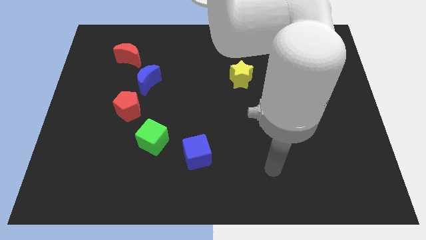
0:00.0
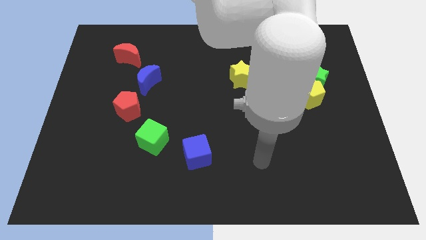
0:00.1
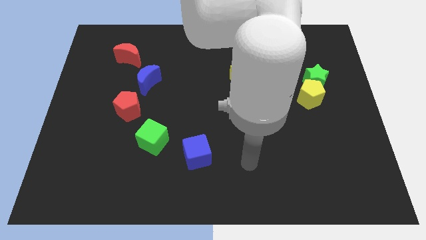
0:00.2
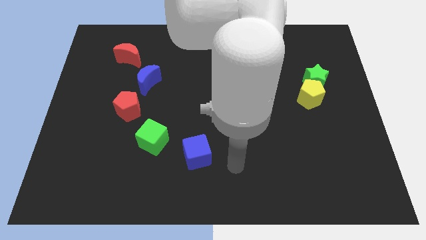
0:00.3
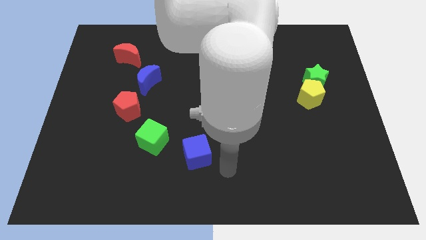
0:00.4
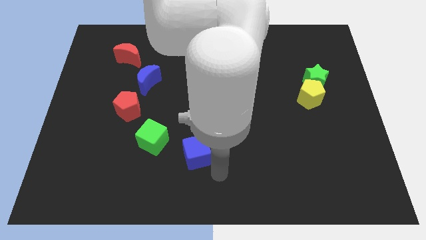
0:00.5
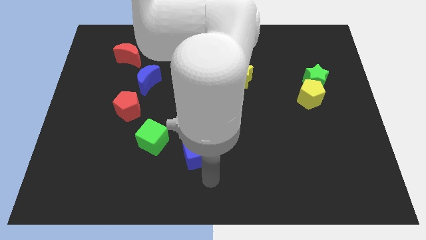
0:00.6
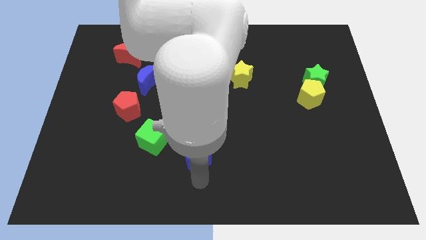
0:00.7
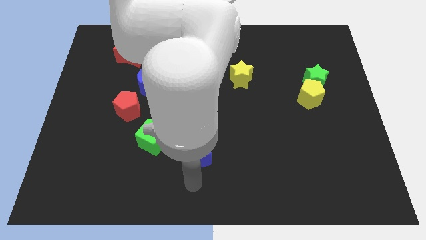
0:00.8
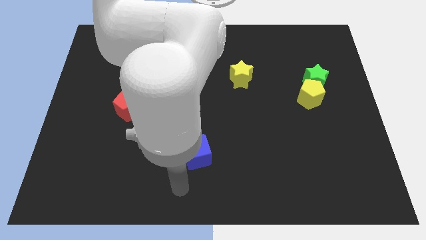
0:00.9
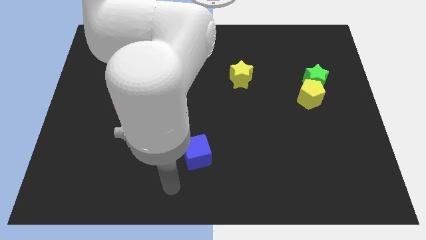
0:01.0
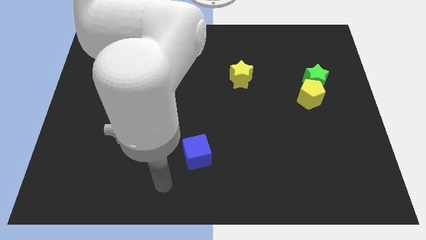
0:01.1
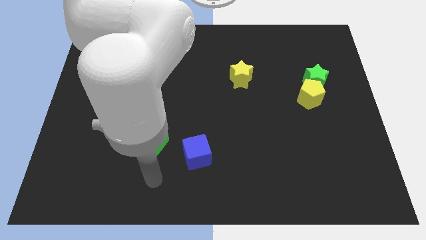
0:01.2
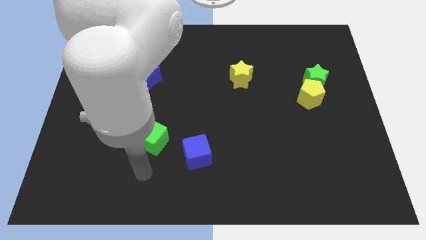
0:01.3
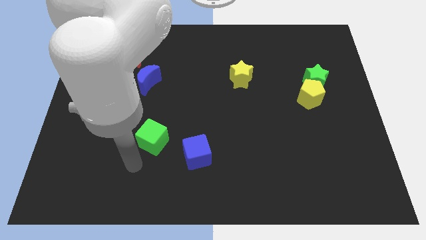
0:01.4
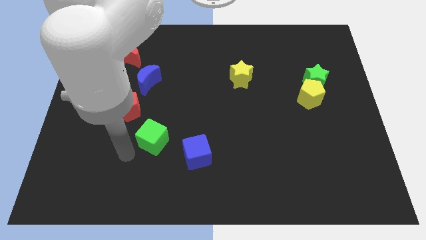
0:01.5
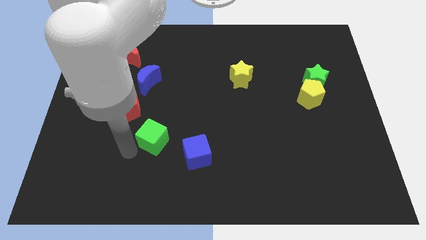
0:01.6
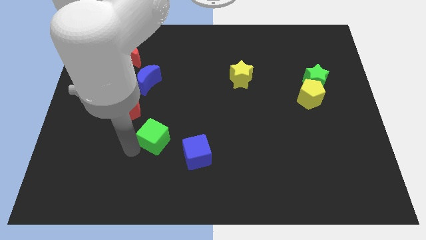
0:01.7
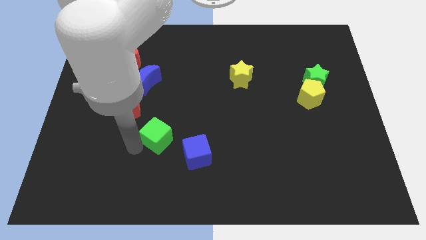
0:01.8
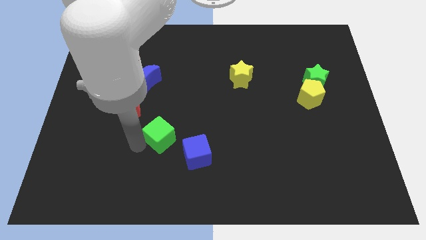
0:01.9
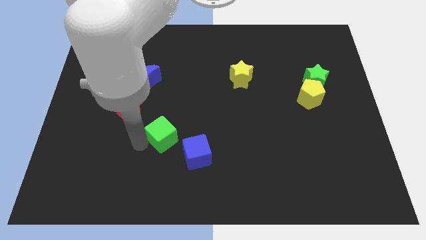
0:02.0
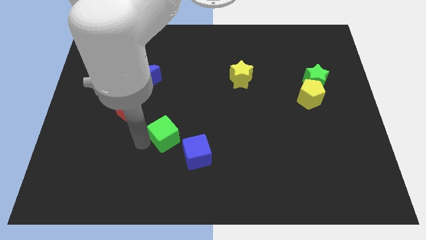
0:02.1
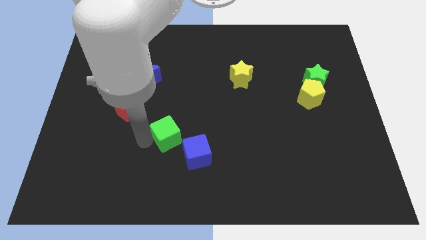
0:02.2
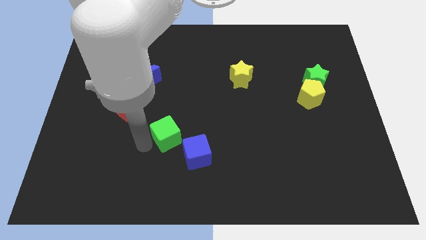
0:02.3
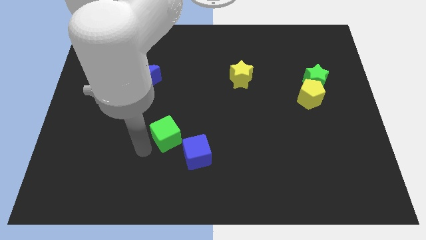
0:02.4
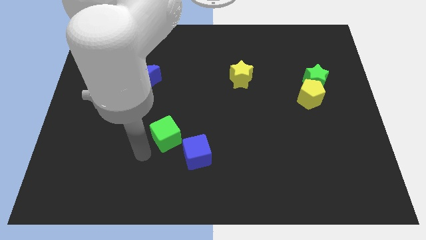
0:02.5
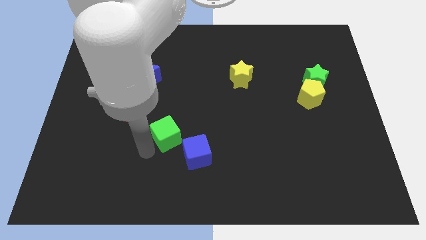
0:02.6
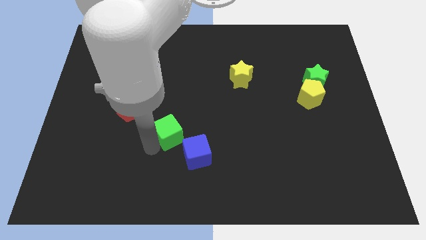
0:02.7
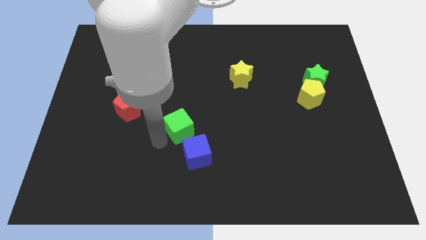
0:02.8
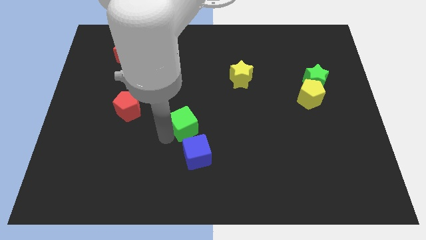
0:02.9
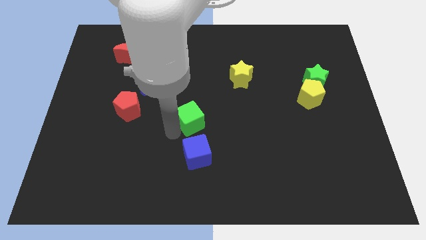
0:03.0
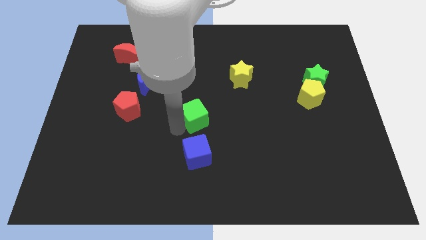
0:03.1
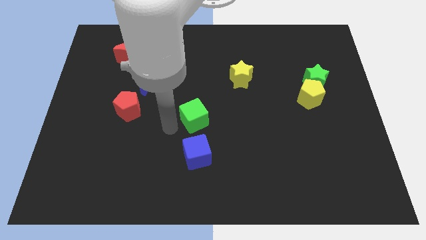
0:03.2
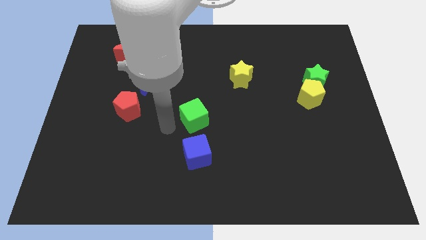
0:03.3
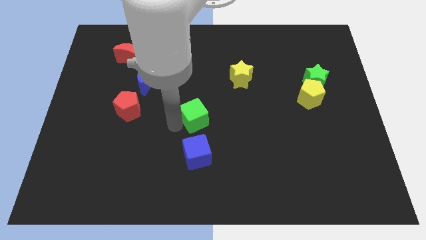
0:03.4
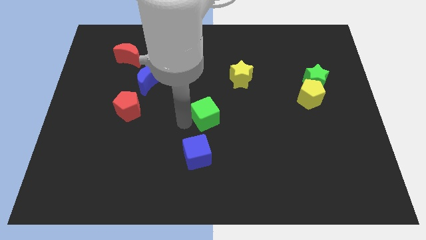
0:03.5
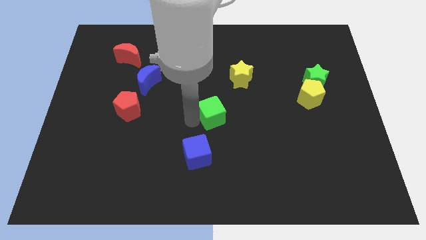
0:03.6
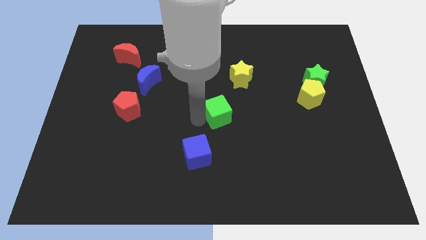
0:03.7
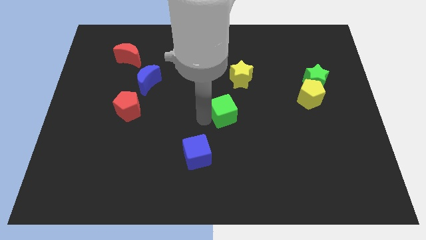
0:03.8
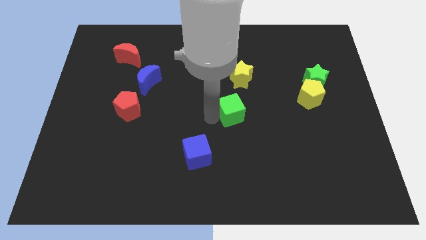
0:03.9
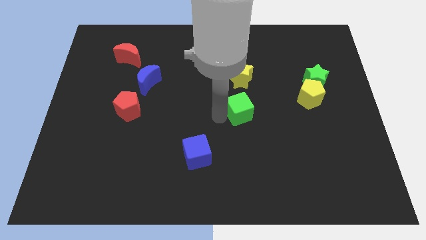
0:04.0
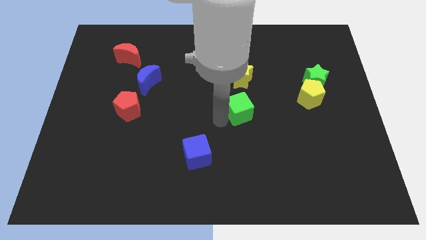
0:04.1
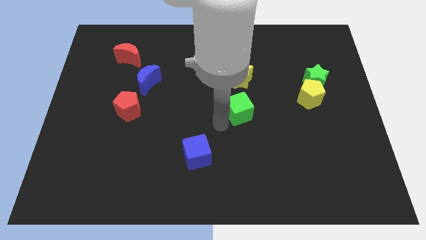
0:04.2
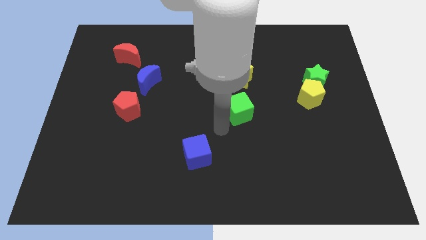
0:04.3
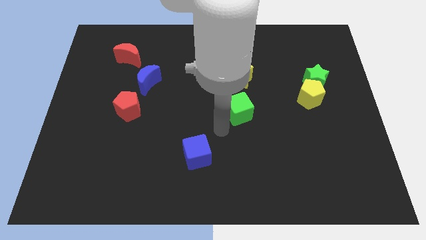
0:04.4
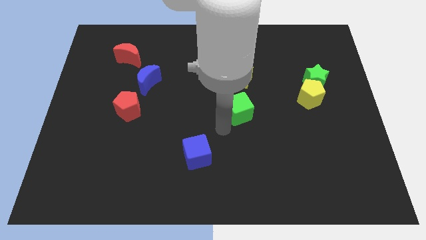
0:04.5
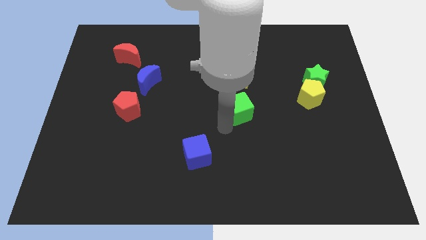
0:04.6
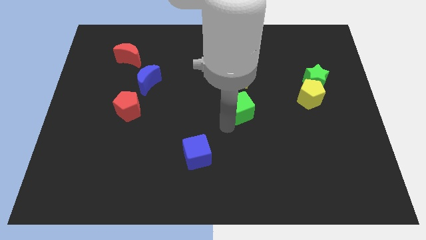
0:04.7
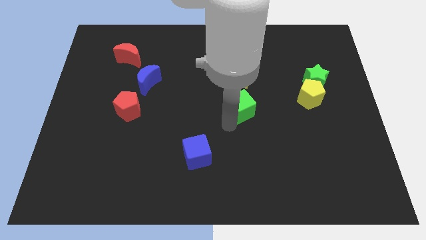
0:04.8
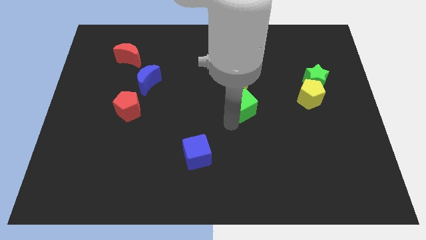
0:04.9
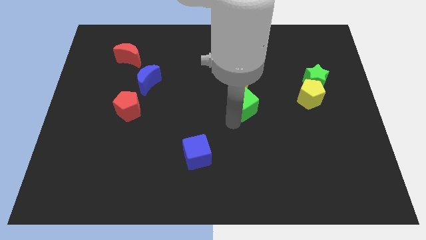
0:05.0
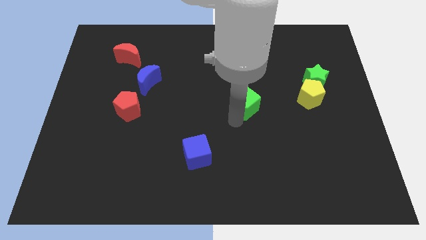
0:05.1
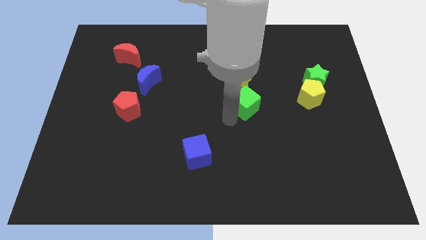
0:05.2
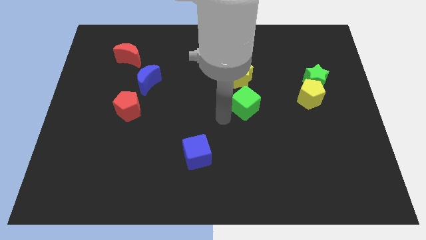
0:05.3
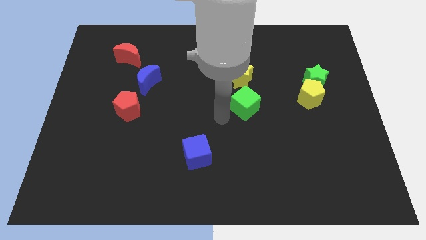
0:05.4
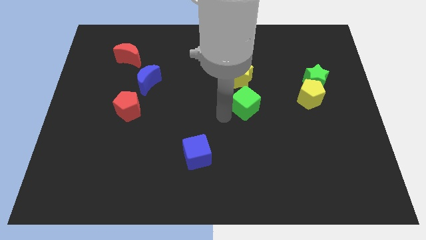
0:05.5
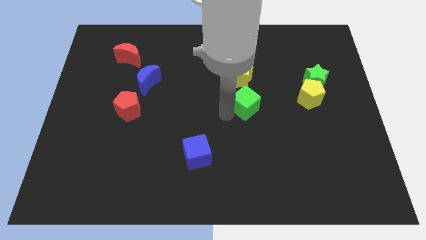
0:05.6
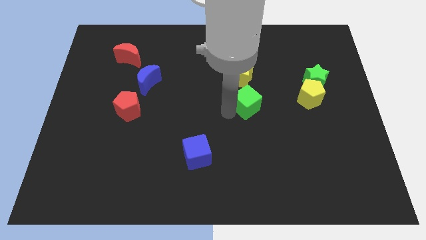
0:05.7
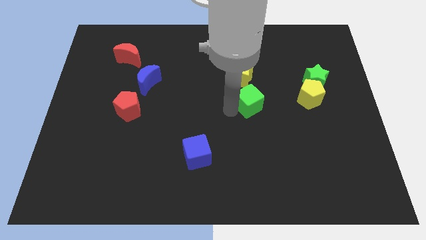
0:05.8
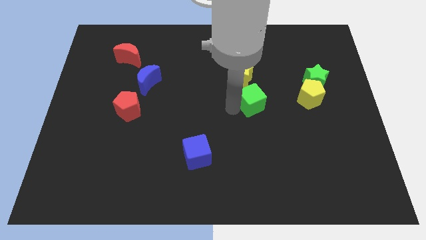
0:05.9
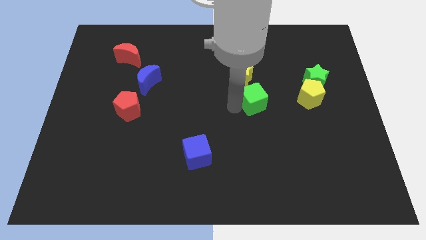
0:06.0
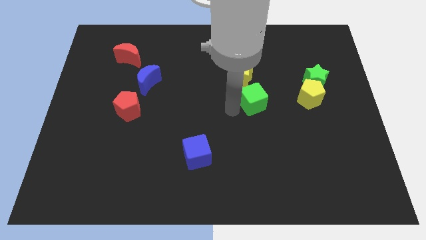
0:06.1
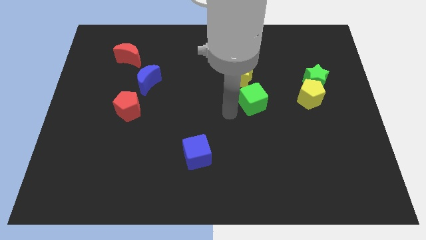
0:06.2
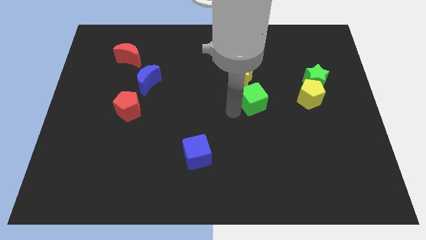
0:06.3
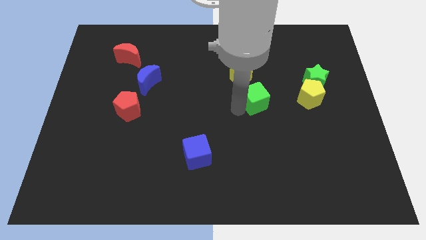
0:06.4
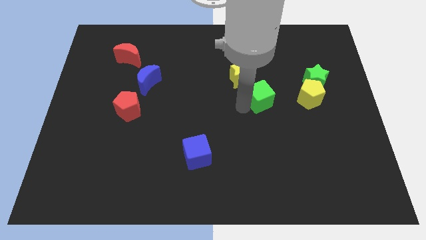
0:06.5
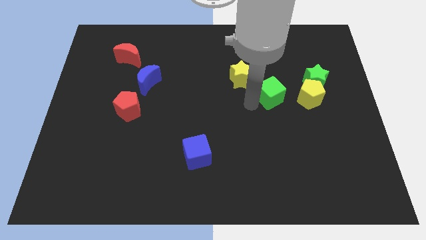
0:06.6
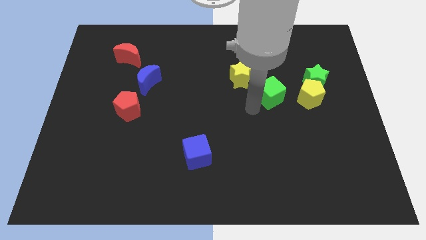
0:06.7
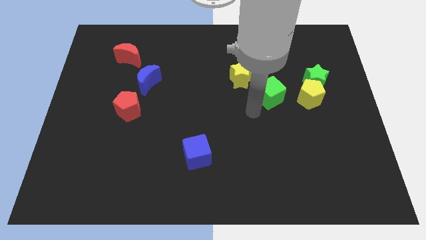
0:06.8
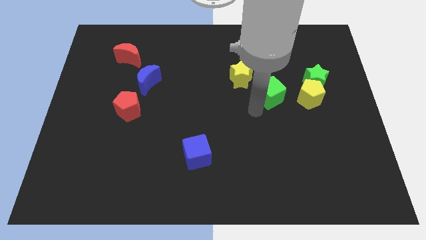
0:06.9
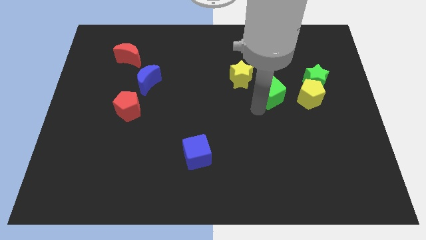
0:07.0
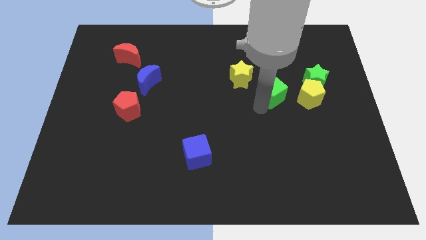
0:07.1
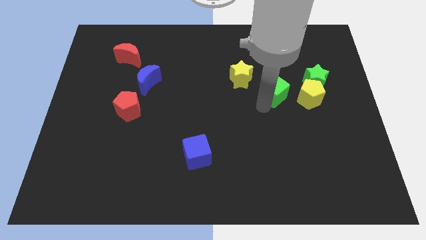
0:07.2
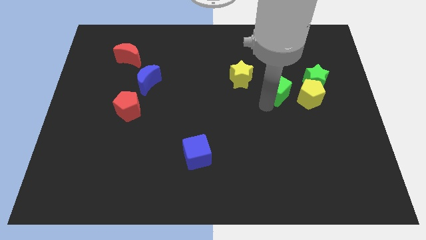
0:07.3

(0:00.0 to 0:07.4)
move the green cube to the top left of the yellow pentagon
